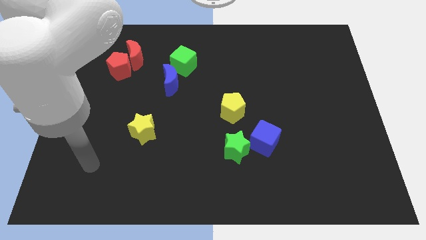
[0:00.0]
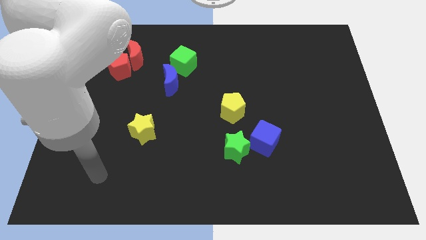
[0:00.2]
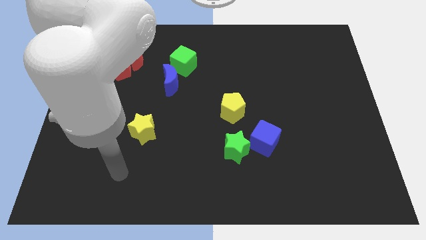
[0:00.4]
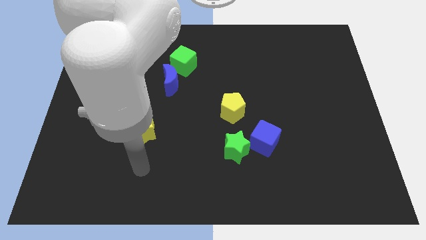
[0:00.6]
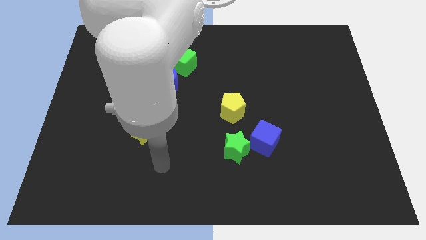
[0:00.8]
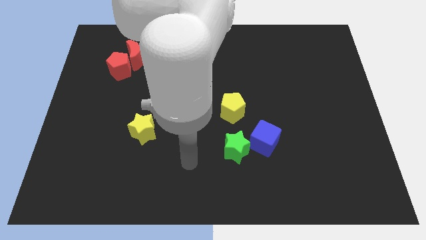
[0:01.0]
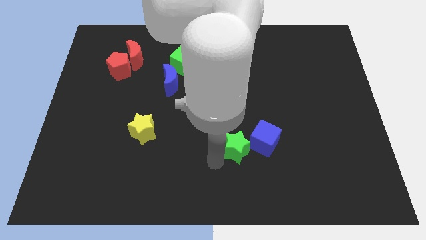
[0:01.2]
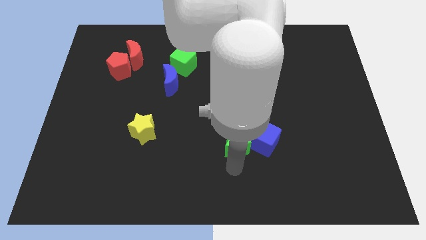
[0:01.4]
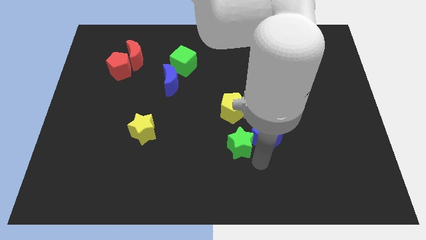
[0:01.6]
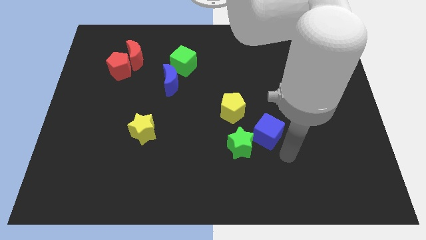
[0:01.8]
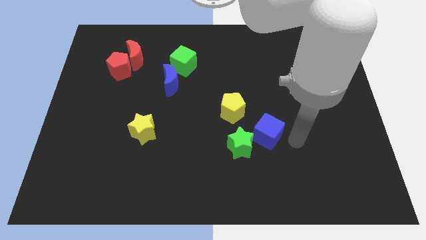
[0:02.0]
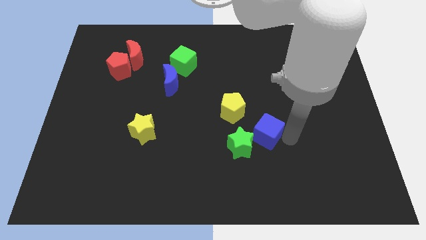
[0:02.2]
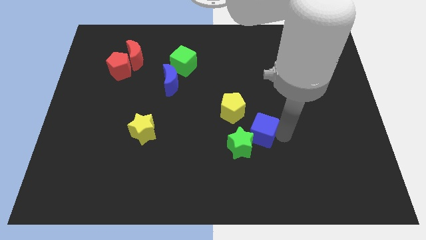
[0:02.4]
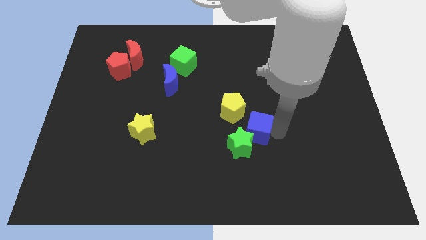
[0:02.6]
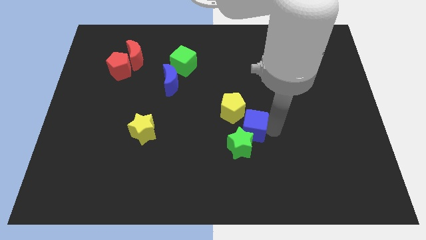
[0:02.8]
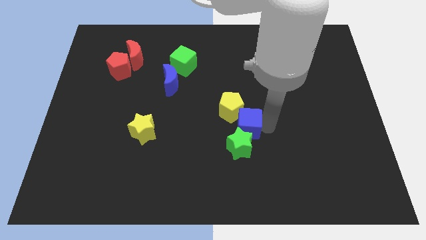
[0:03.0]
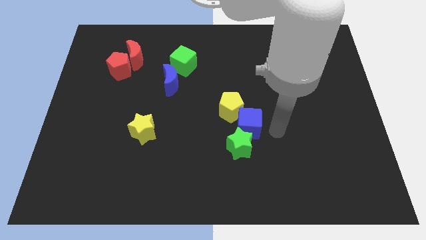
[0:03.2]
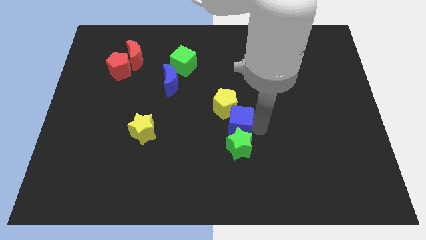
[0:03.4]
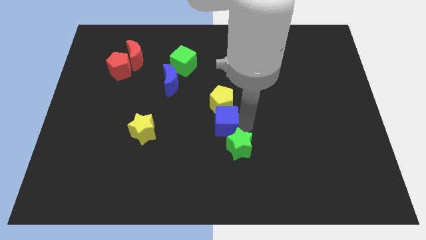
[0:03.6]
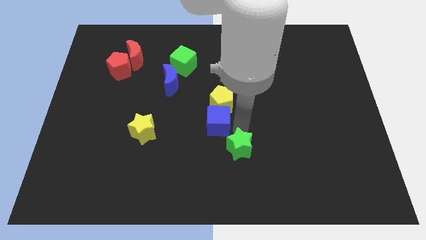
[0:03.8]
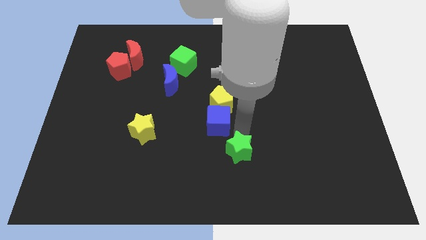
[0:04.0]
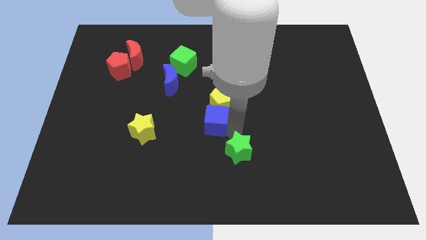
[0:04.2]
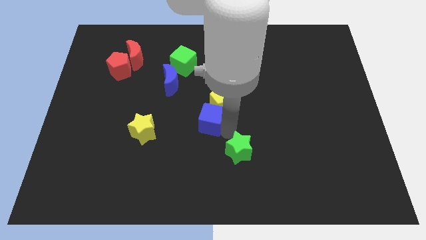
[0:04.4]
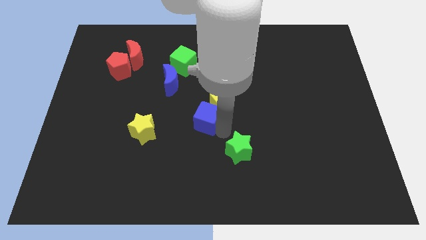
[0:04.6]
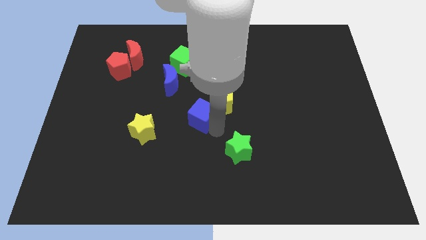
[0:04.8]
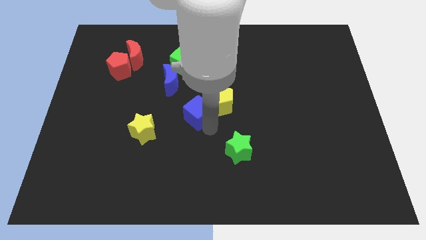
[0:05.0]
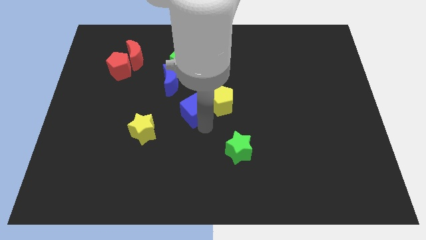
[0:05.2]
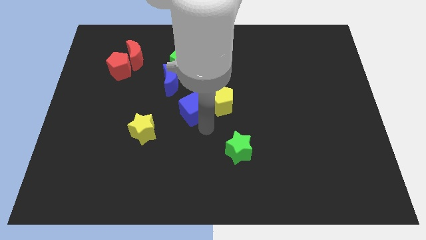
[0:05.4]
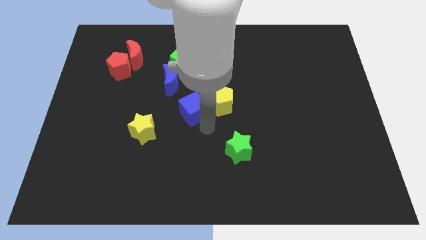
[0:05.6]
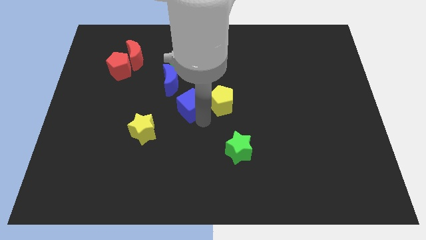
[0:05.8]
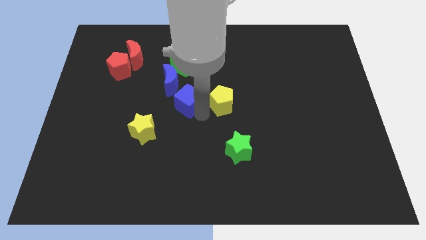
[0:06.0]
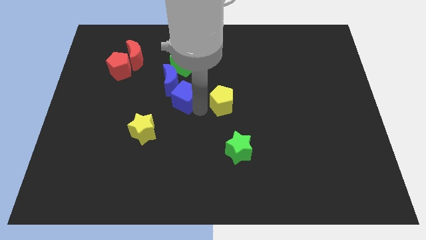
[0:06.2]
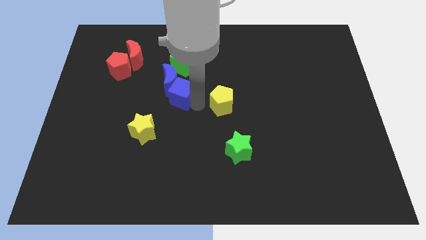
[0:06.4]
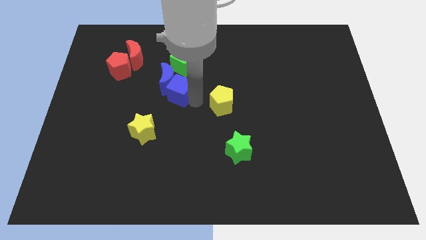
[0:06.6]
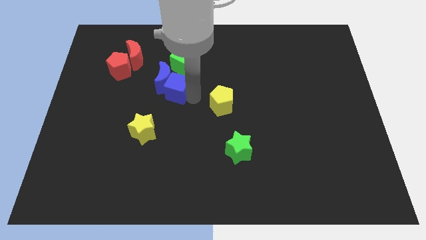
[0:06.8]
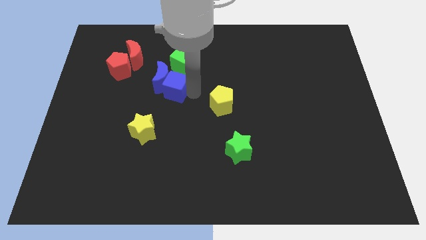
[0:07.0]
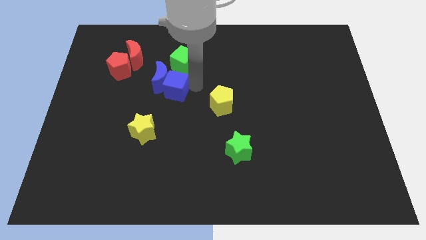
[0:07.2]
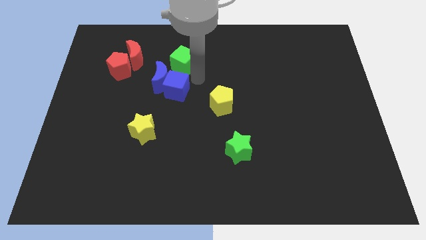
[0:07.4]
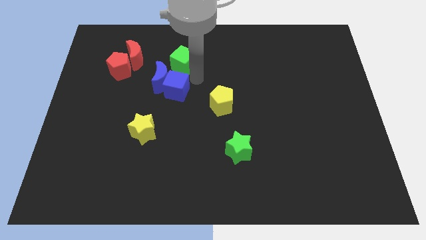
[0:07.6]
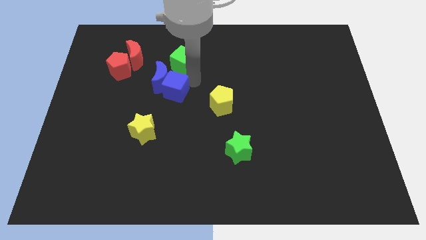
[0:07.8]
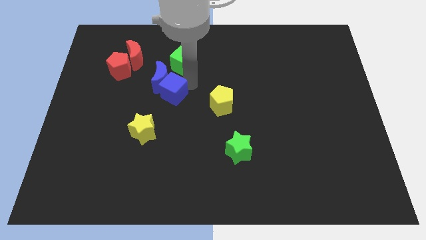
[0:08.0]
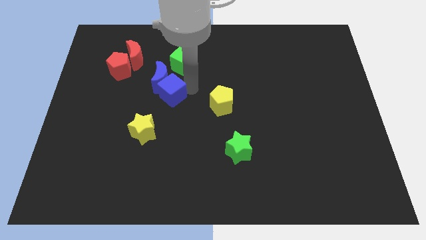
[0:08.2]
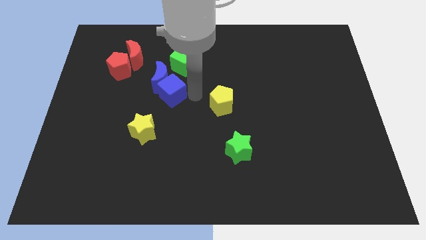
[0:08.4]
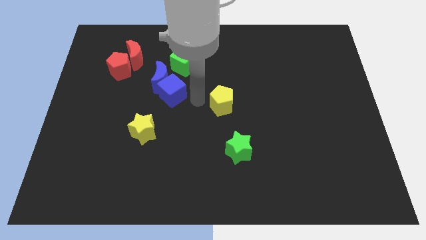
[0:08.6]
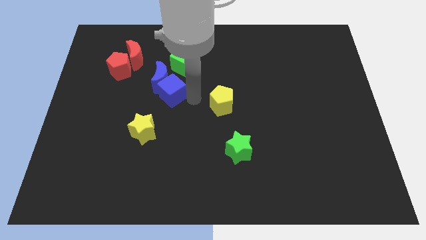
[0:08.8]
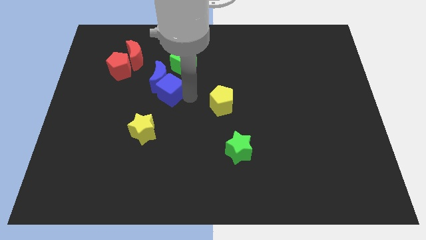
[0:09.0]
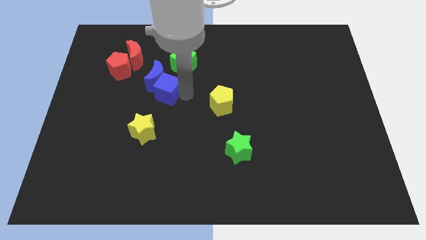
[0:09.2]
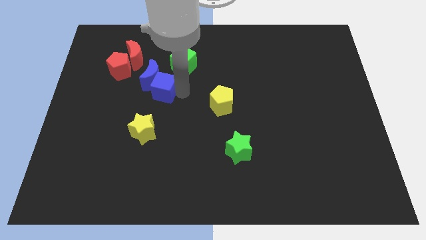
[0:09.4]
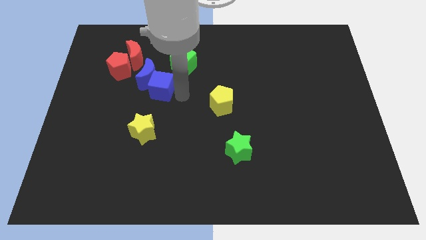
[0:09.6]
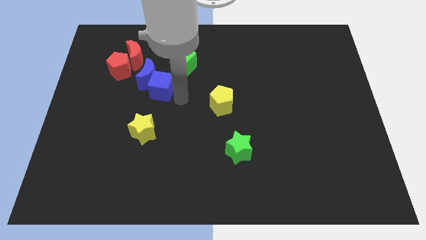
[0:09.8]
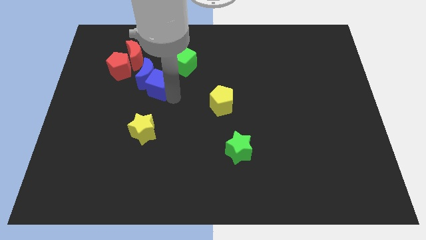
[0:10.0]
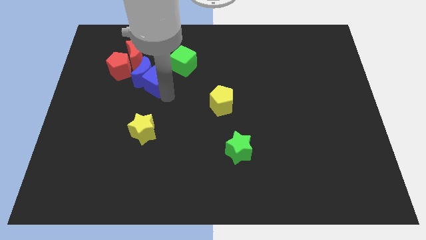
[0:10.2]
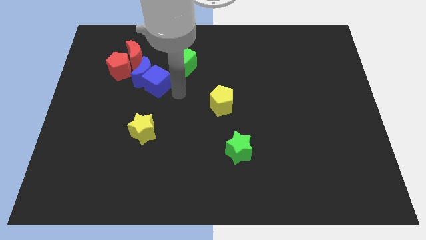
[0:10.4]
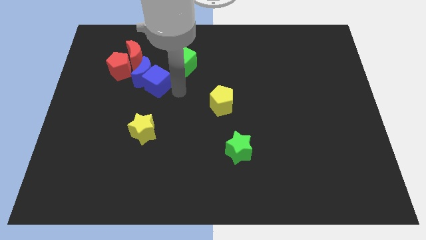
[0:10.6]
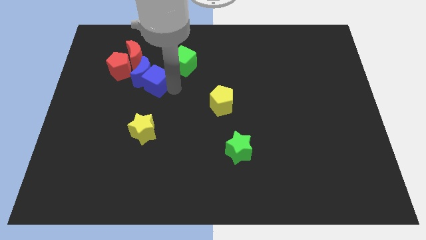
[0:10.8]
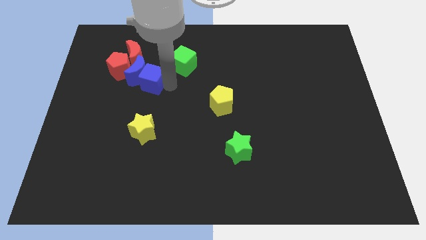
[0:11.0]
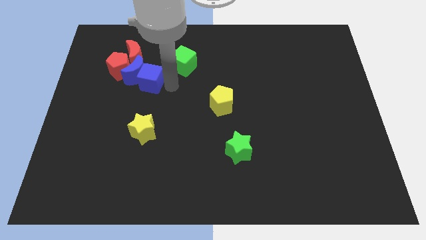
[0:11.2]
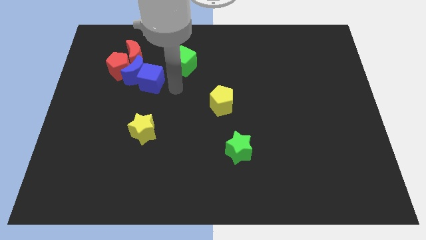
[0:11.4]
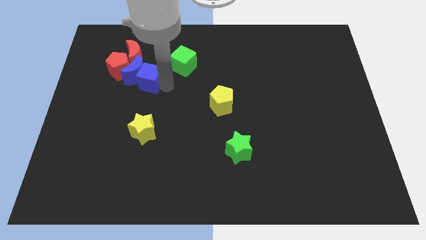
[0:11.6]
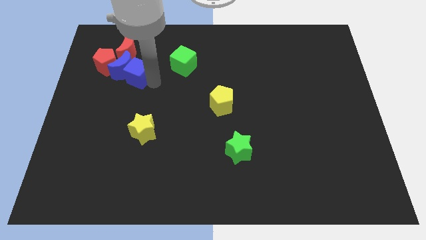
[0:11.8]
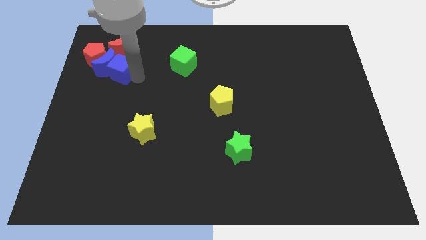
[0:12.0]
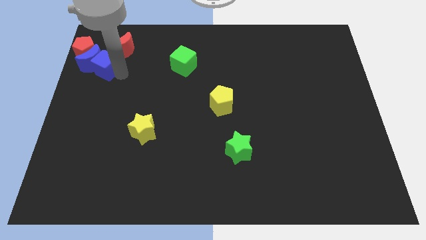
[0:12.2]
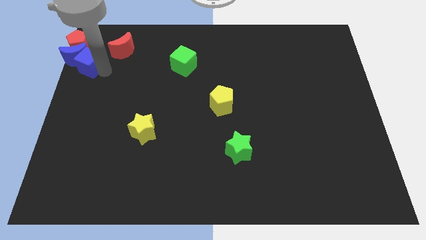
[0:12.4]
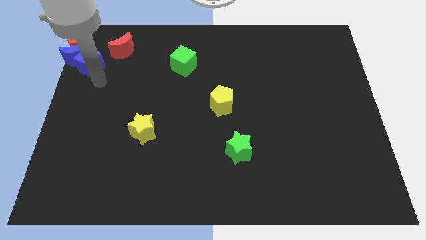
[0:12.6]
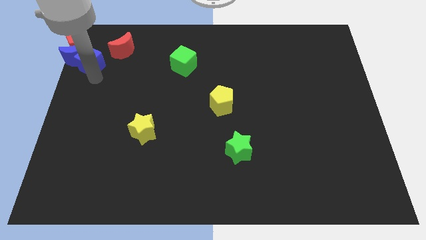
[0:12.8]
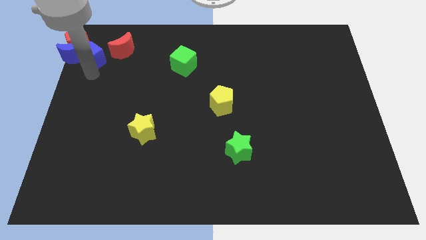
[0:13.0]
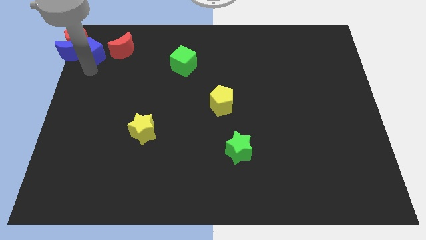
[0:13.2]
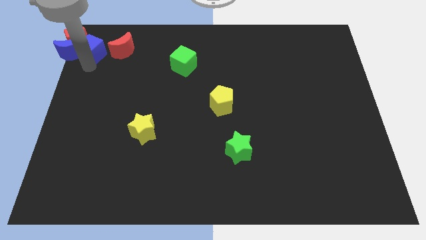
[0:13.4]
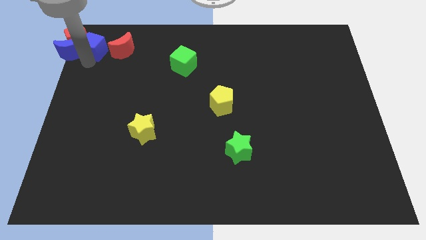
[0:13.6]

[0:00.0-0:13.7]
push the blue cube towards the red pentagon

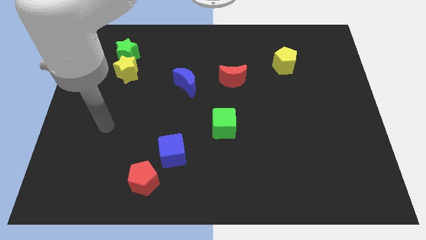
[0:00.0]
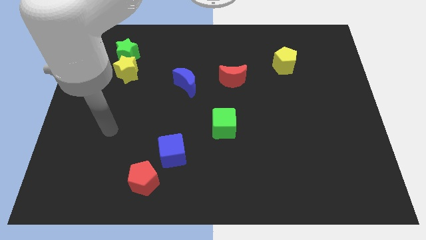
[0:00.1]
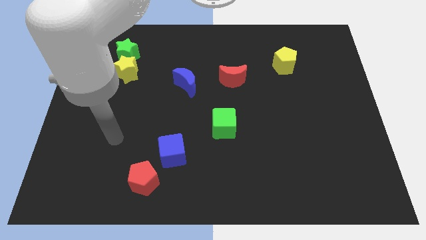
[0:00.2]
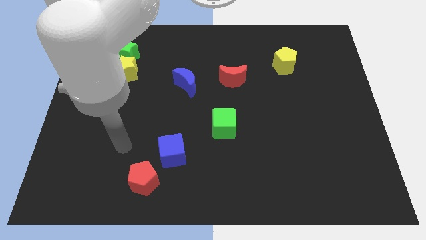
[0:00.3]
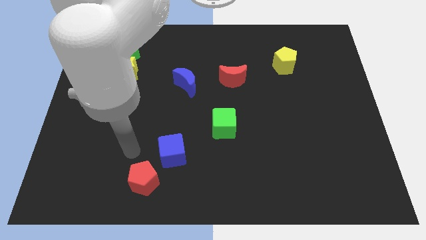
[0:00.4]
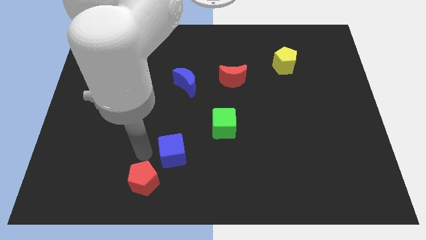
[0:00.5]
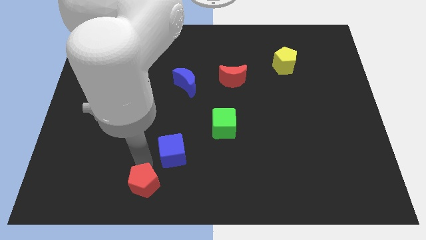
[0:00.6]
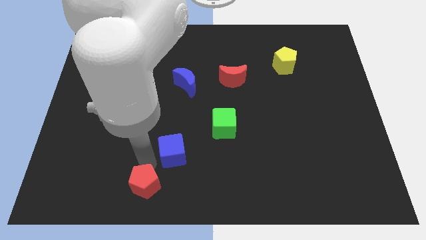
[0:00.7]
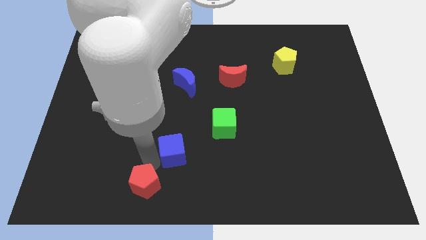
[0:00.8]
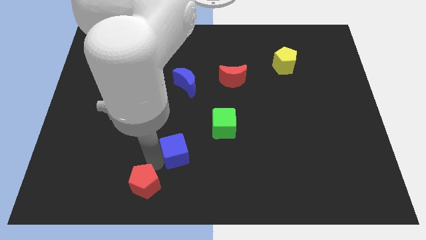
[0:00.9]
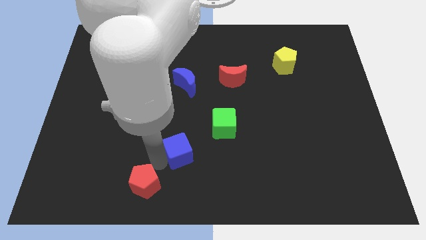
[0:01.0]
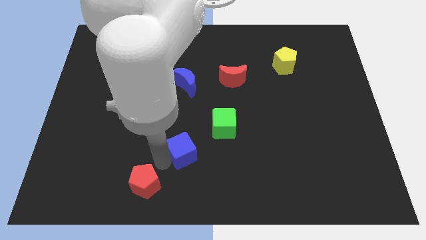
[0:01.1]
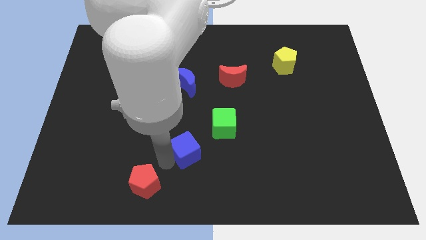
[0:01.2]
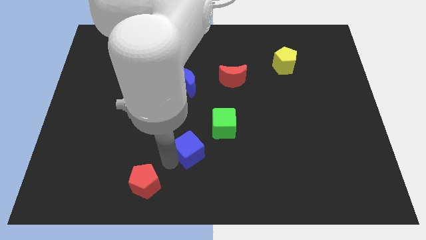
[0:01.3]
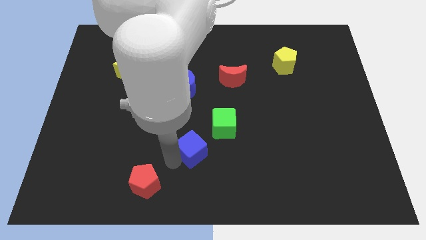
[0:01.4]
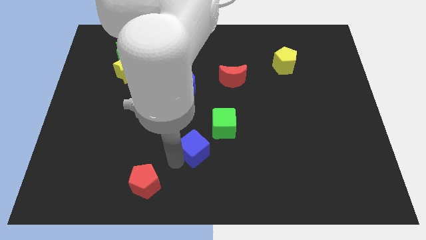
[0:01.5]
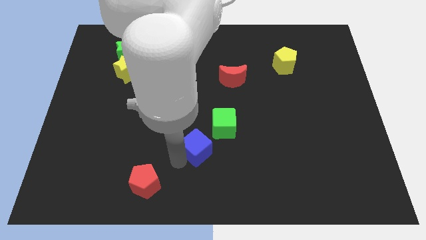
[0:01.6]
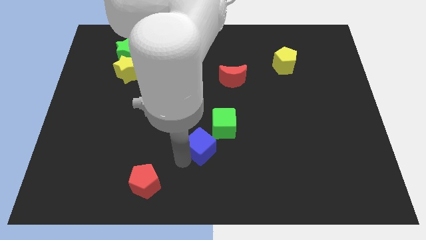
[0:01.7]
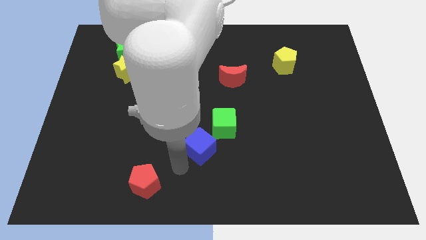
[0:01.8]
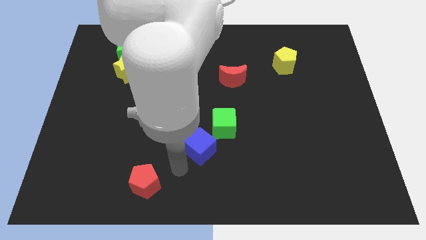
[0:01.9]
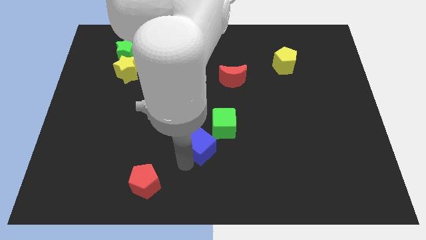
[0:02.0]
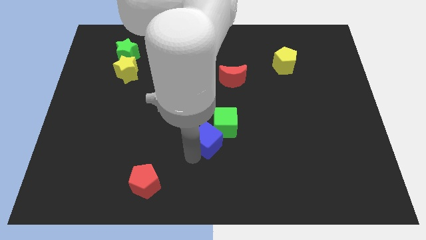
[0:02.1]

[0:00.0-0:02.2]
move the blue cube to the green cube
